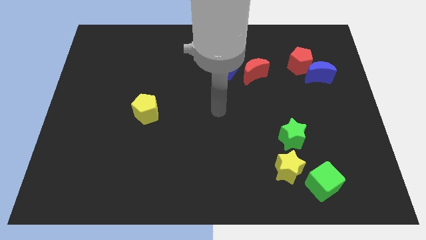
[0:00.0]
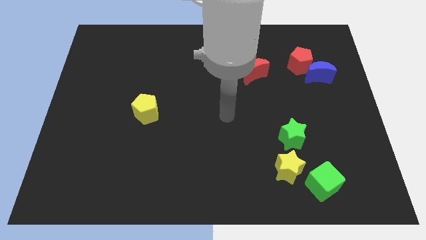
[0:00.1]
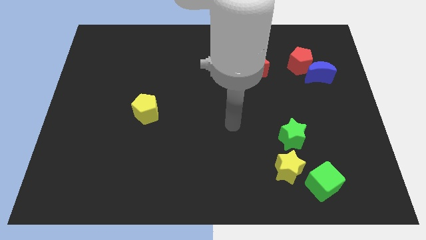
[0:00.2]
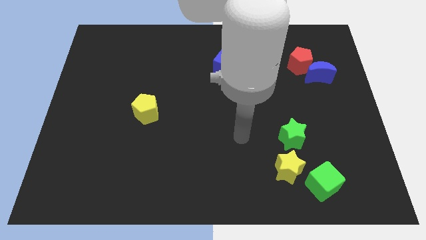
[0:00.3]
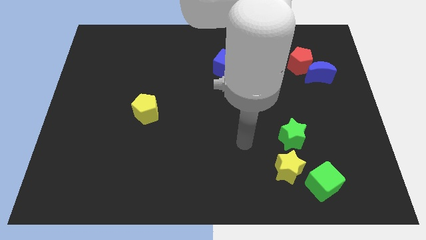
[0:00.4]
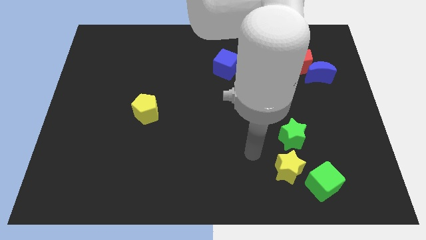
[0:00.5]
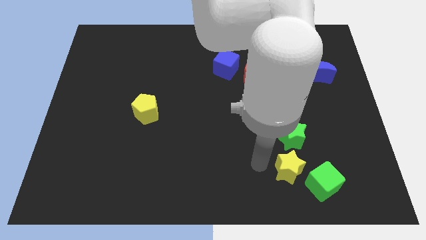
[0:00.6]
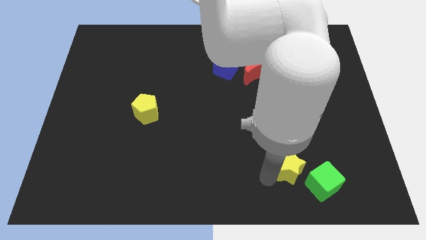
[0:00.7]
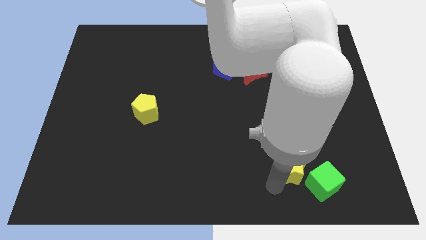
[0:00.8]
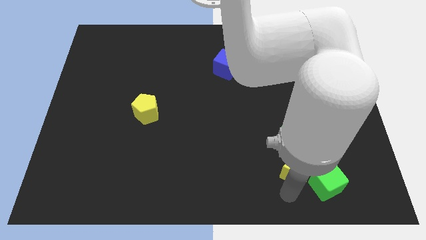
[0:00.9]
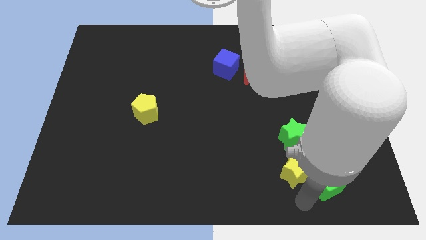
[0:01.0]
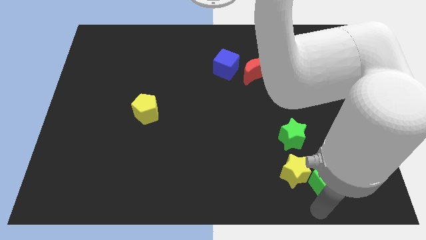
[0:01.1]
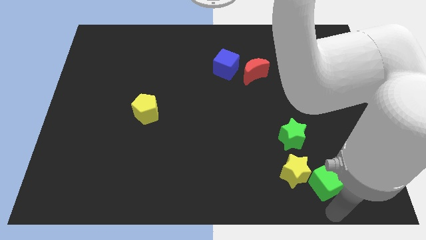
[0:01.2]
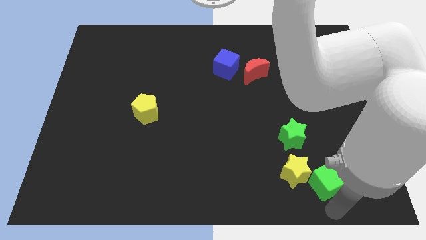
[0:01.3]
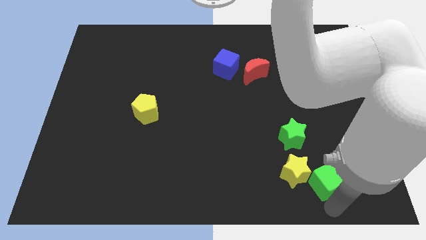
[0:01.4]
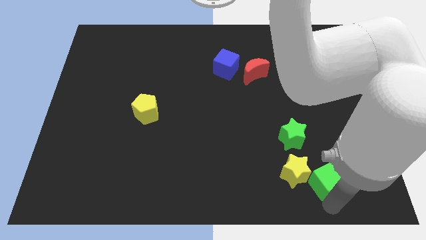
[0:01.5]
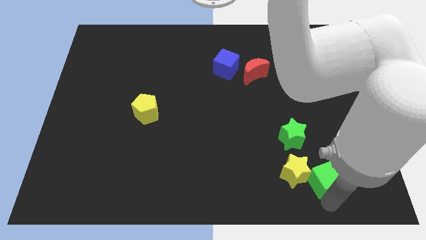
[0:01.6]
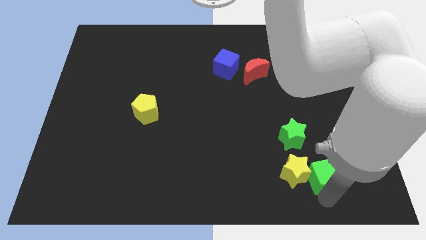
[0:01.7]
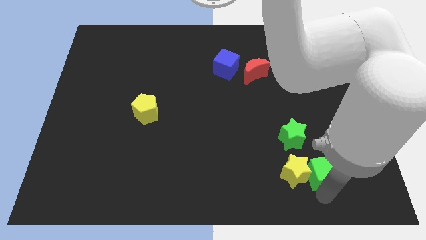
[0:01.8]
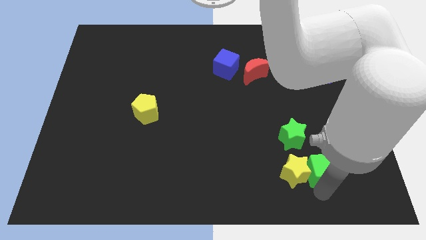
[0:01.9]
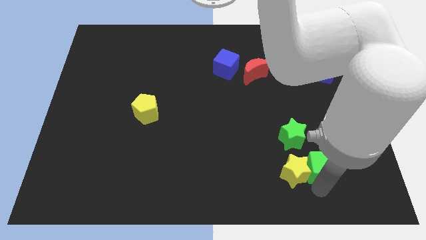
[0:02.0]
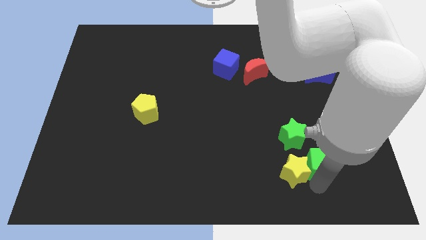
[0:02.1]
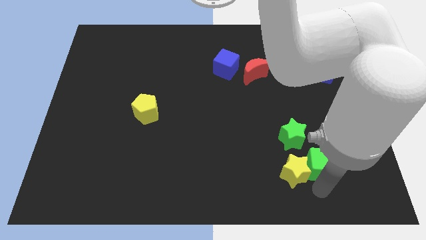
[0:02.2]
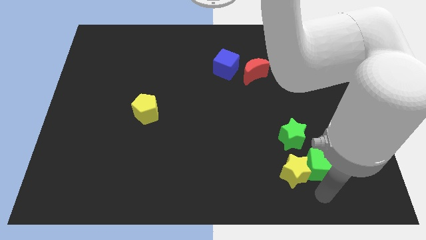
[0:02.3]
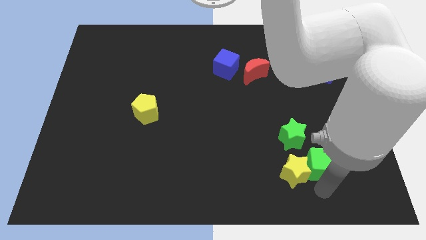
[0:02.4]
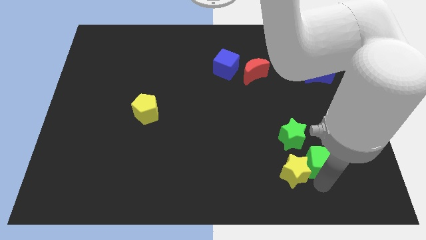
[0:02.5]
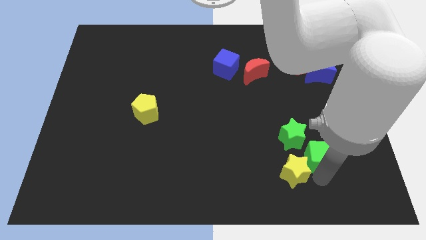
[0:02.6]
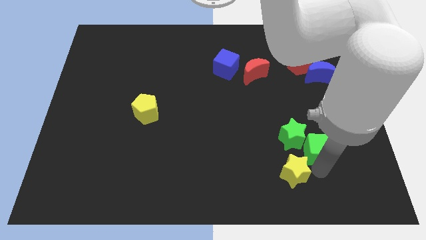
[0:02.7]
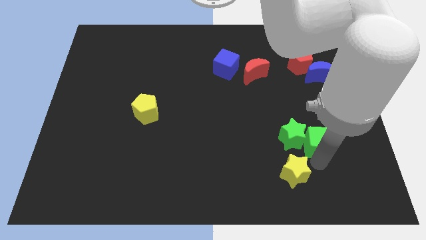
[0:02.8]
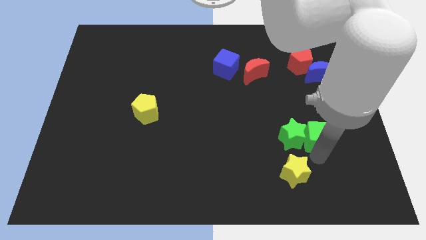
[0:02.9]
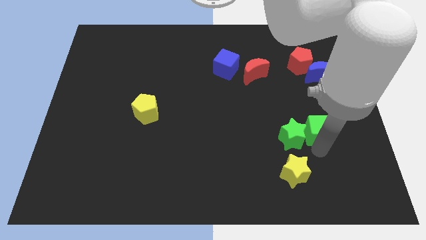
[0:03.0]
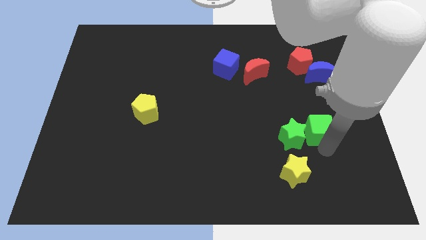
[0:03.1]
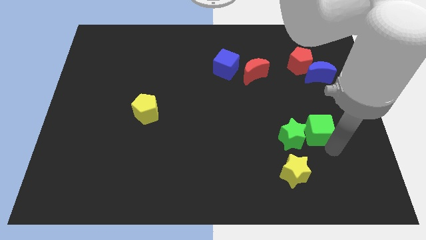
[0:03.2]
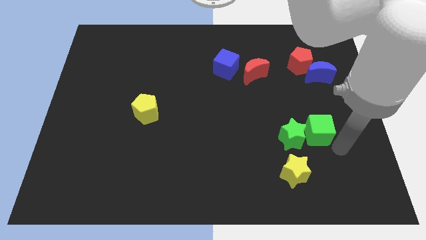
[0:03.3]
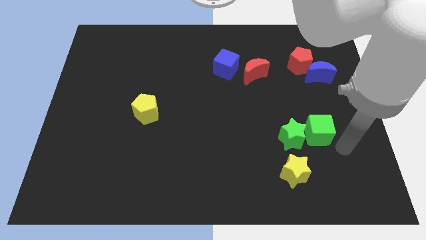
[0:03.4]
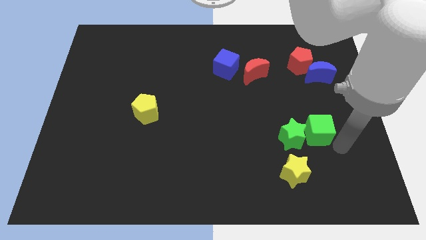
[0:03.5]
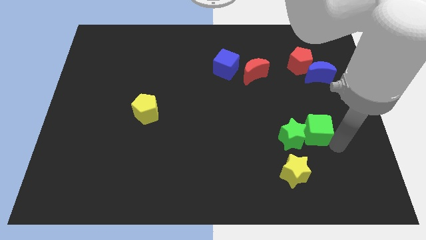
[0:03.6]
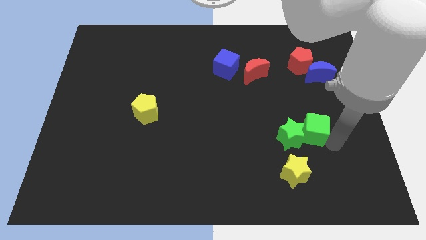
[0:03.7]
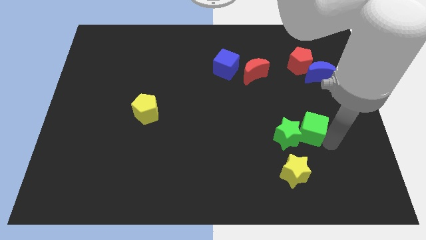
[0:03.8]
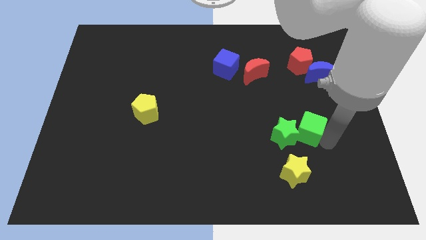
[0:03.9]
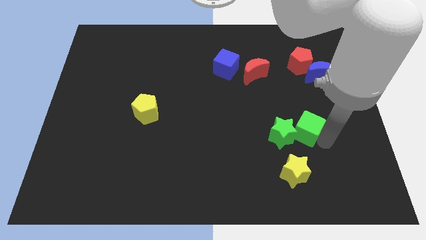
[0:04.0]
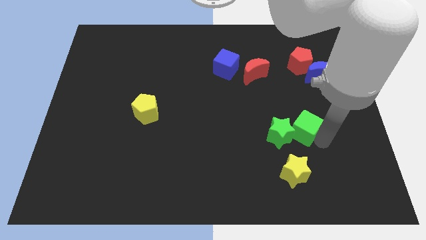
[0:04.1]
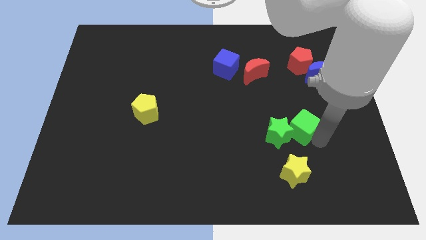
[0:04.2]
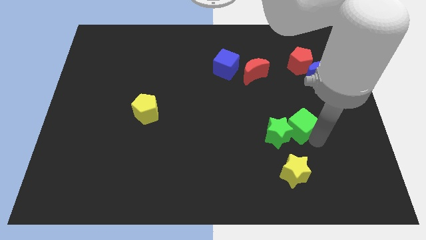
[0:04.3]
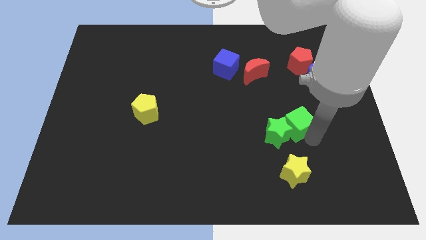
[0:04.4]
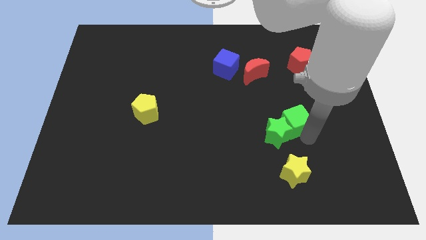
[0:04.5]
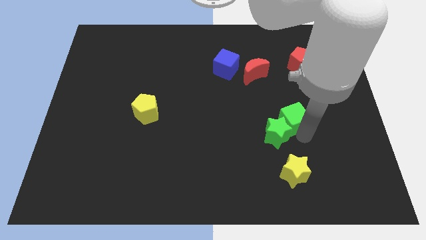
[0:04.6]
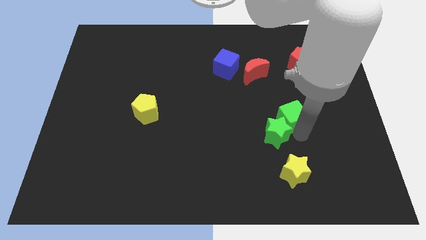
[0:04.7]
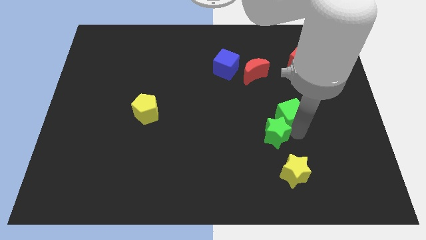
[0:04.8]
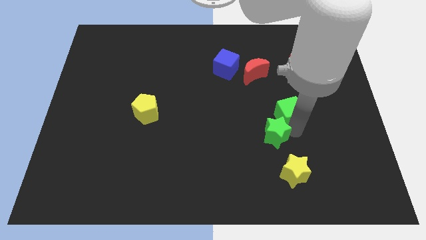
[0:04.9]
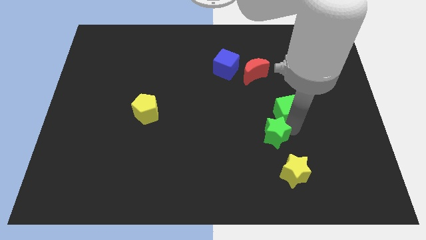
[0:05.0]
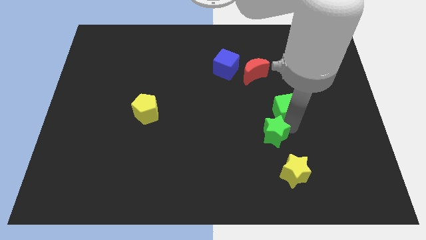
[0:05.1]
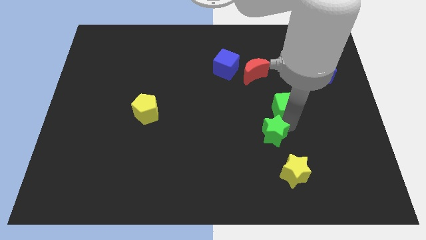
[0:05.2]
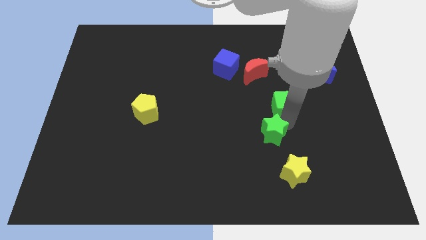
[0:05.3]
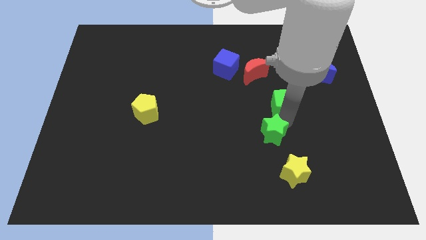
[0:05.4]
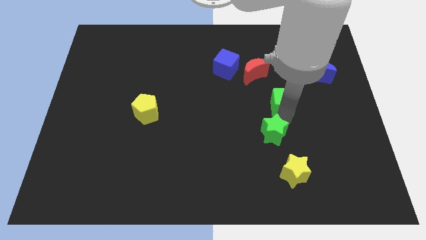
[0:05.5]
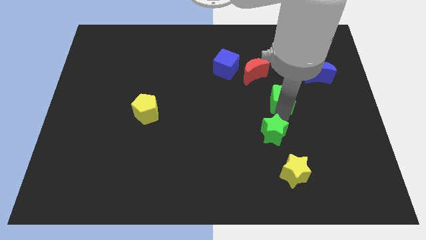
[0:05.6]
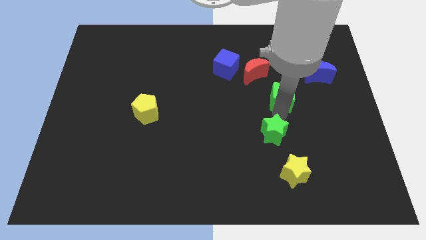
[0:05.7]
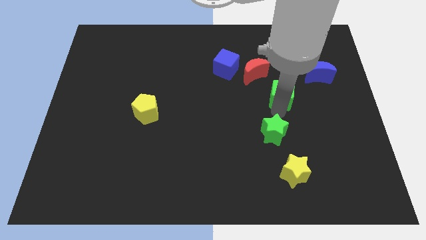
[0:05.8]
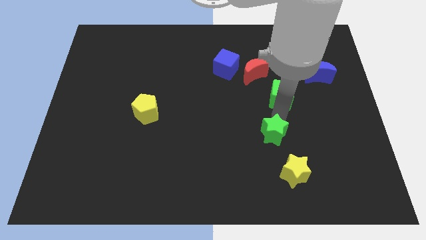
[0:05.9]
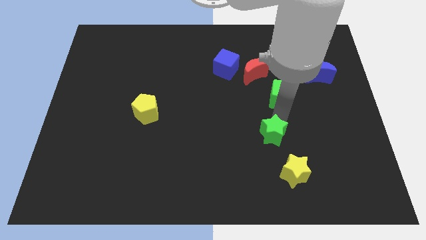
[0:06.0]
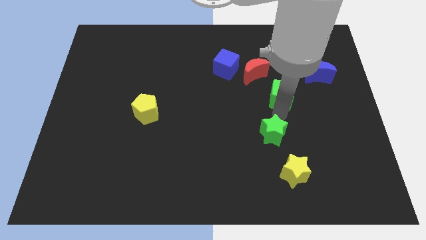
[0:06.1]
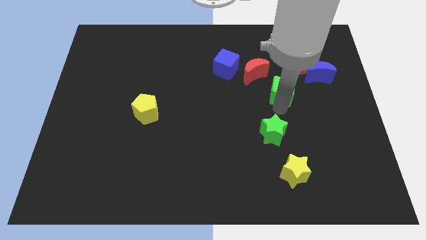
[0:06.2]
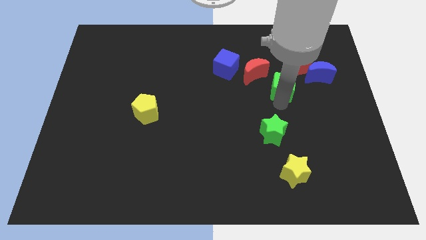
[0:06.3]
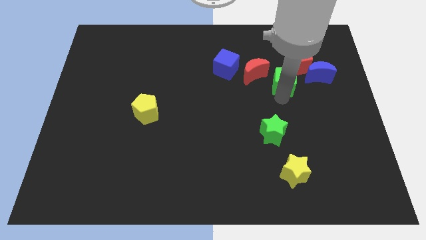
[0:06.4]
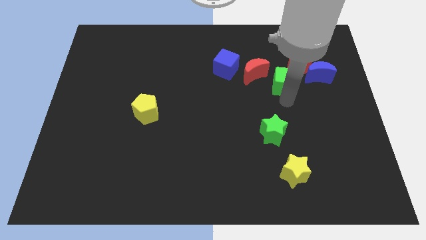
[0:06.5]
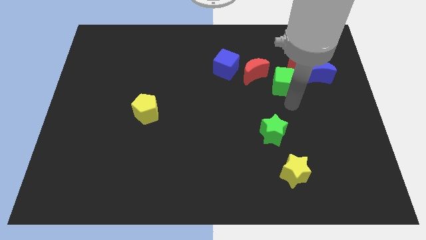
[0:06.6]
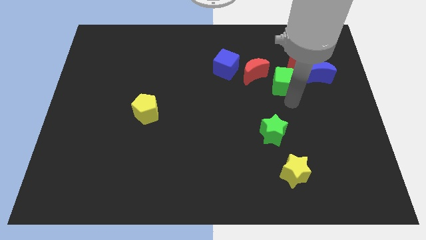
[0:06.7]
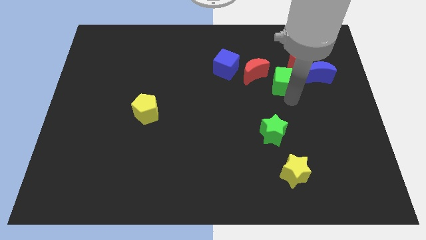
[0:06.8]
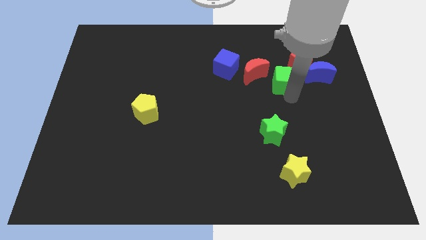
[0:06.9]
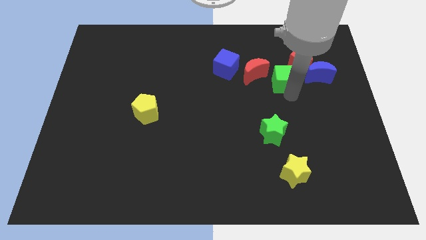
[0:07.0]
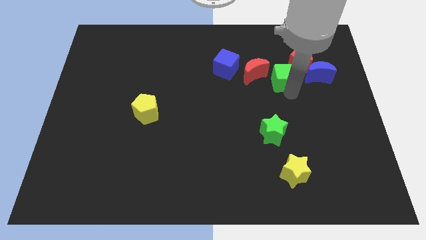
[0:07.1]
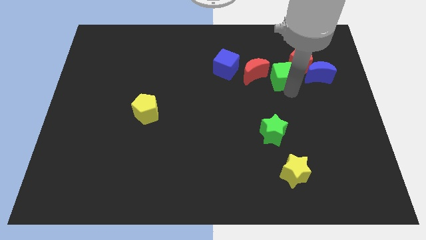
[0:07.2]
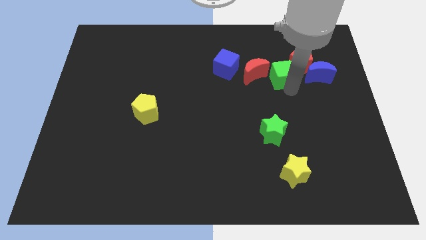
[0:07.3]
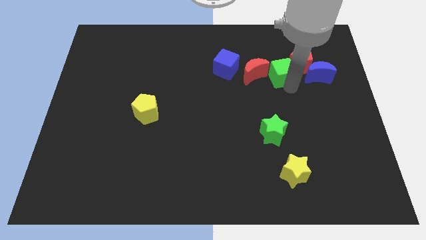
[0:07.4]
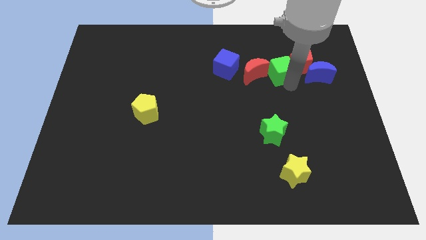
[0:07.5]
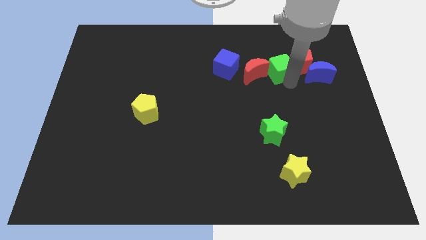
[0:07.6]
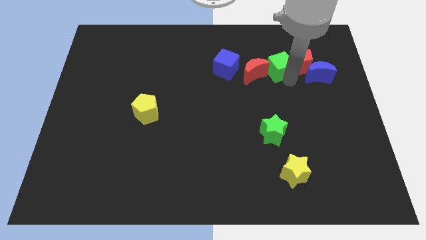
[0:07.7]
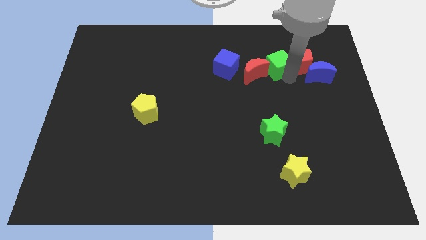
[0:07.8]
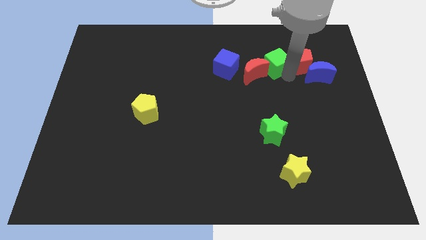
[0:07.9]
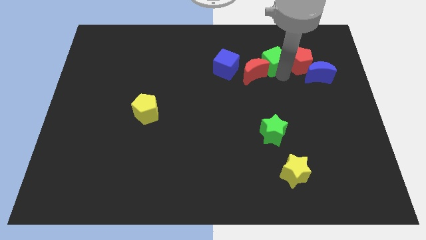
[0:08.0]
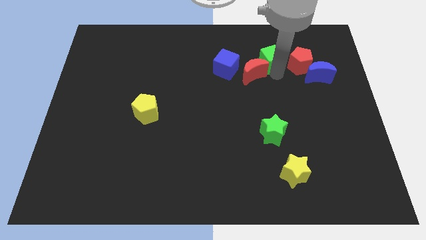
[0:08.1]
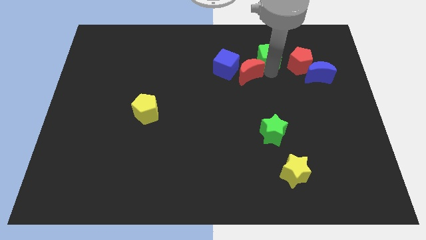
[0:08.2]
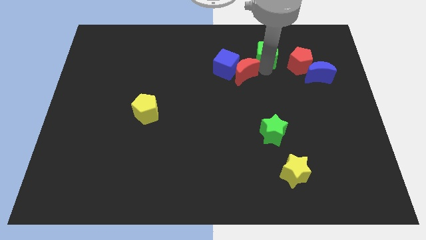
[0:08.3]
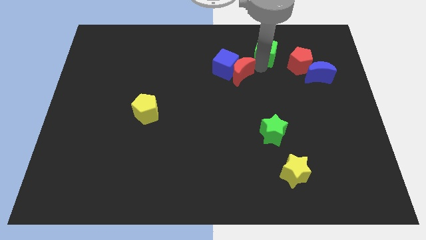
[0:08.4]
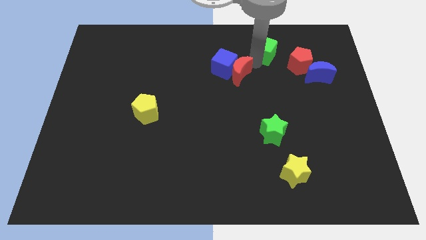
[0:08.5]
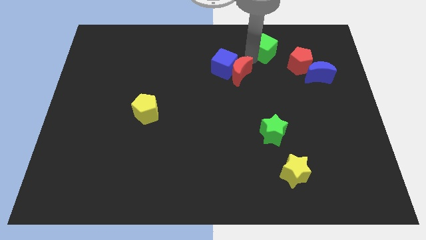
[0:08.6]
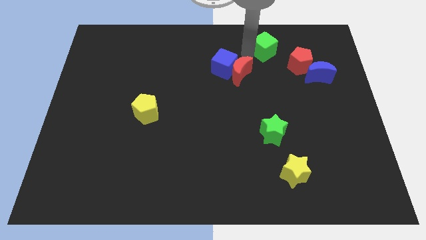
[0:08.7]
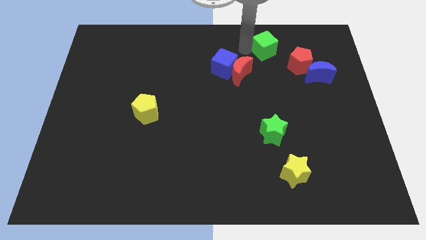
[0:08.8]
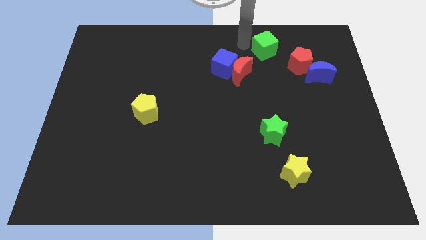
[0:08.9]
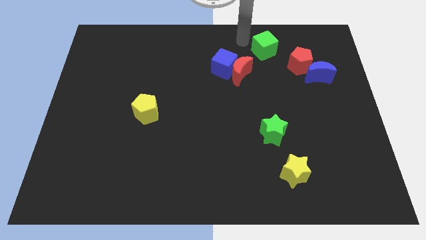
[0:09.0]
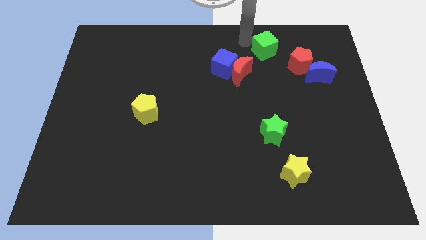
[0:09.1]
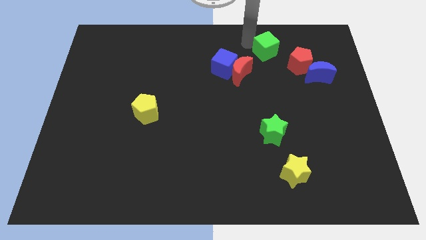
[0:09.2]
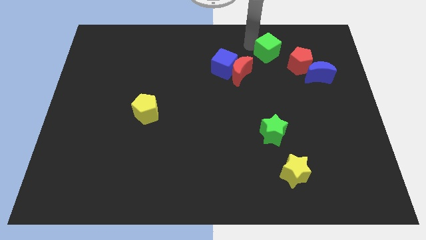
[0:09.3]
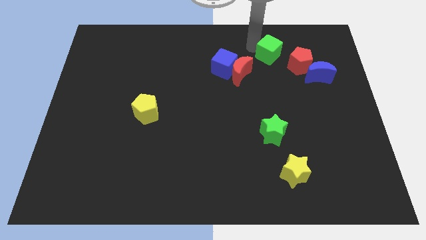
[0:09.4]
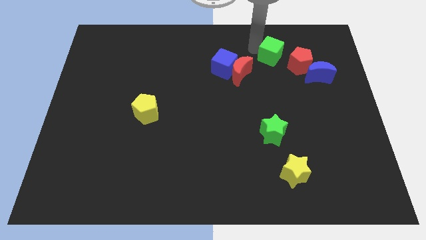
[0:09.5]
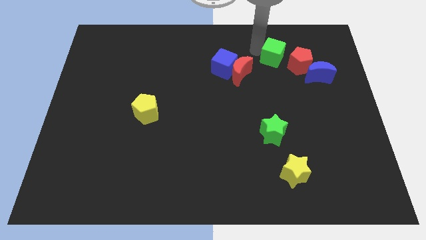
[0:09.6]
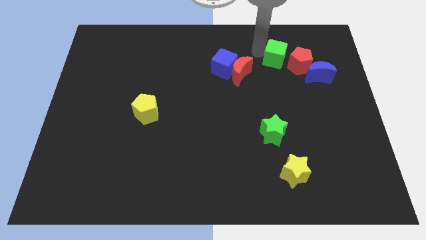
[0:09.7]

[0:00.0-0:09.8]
push the green cube diagonally up and to the left of the blue moon
